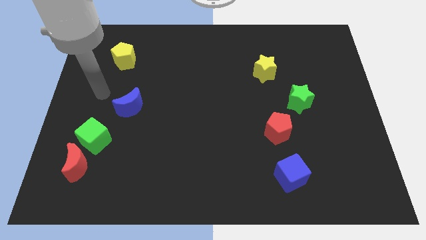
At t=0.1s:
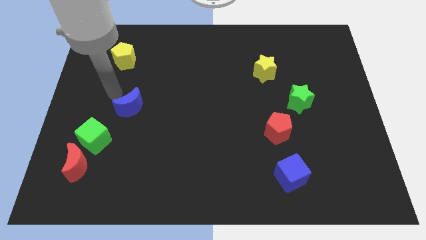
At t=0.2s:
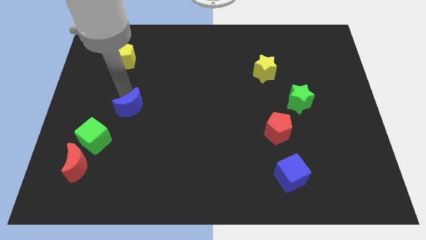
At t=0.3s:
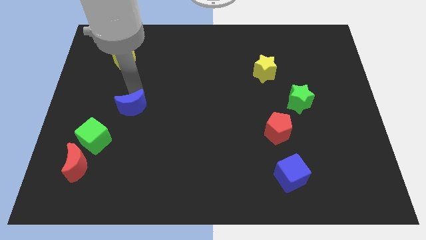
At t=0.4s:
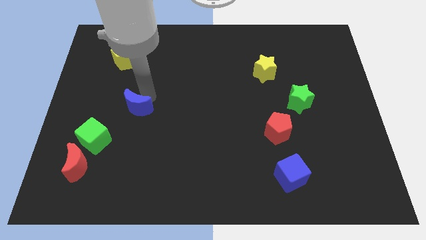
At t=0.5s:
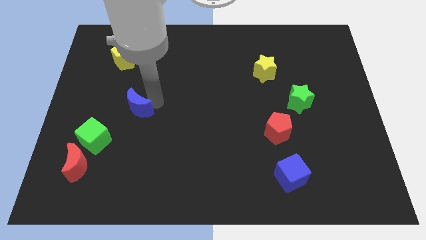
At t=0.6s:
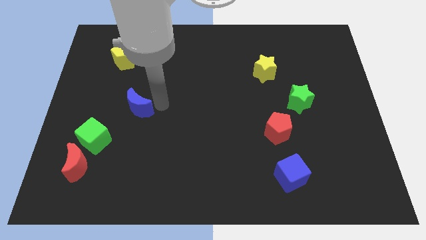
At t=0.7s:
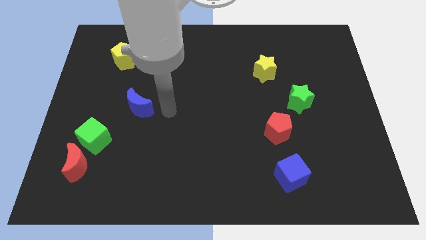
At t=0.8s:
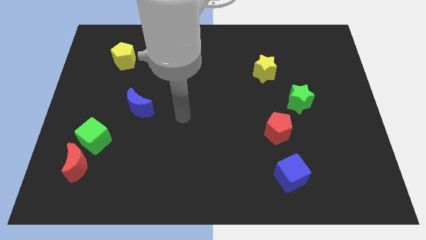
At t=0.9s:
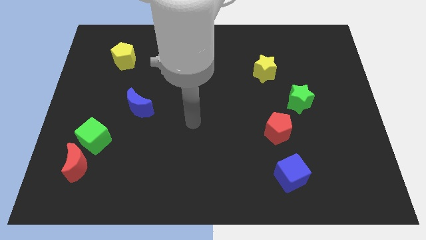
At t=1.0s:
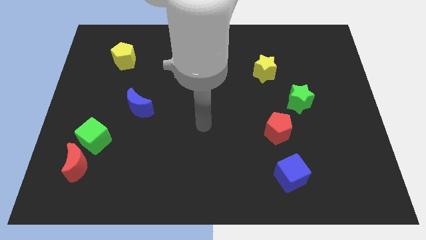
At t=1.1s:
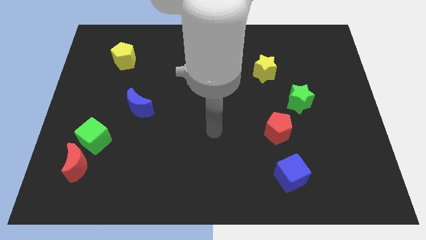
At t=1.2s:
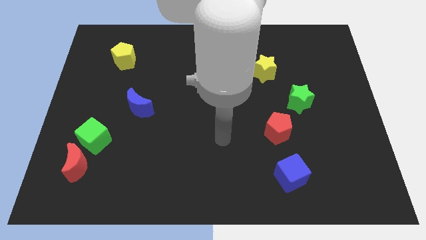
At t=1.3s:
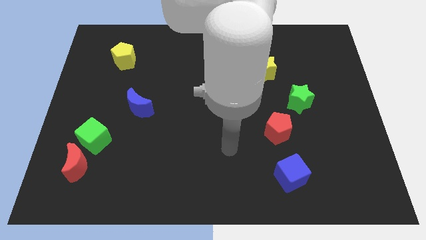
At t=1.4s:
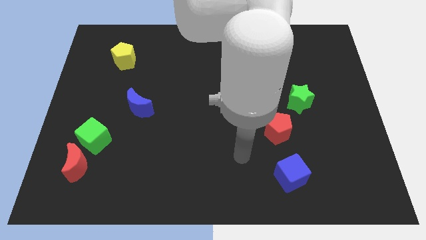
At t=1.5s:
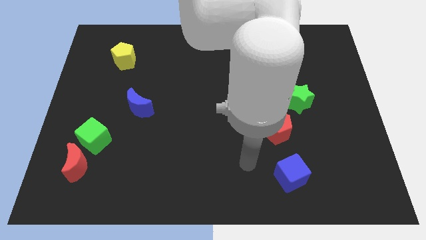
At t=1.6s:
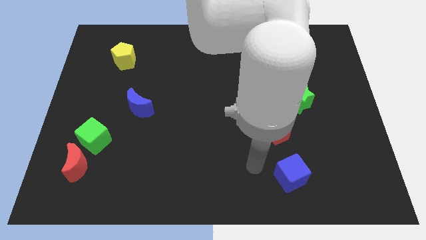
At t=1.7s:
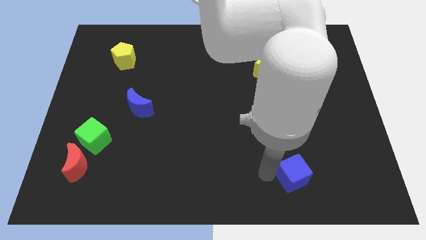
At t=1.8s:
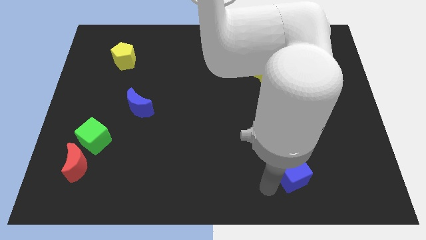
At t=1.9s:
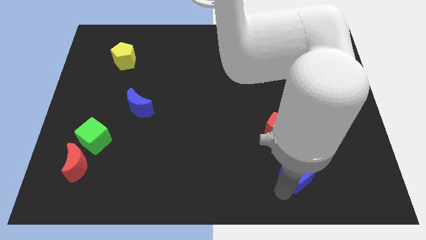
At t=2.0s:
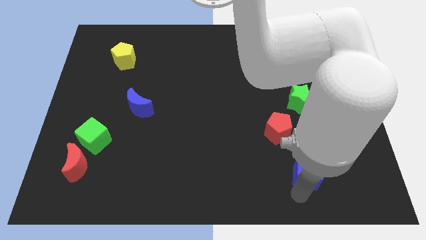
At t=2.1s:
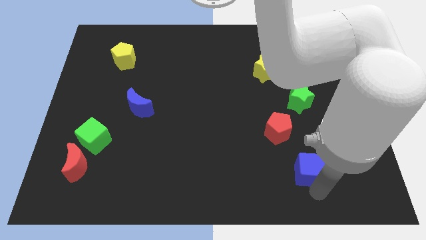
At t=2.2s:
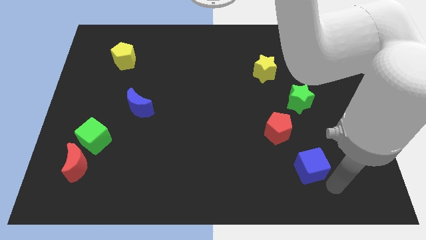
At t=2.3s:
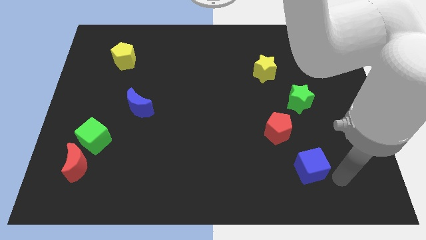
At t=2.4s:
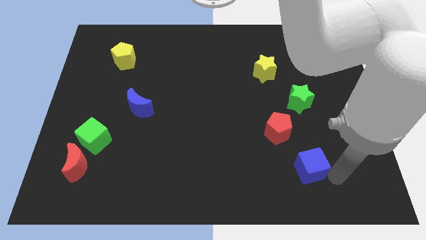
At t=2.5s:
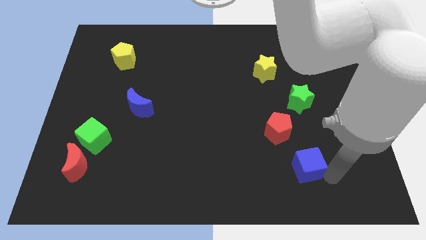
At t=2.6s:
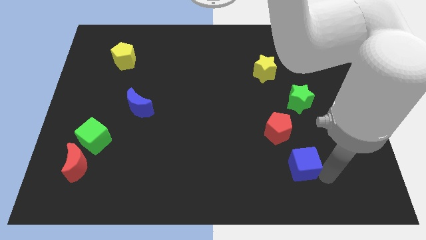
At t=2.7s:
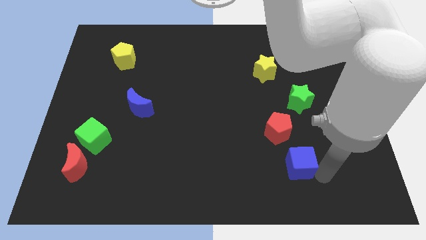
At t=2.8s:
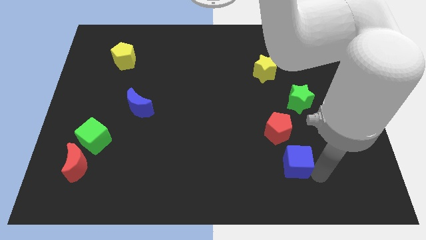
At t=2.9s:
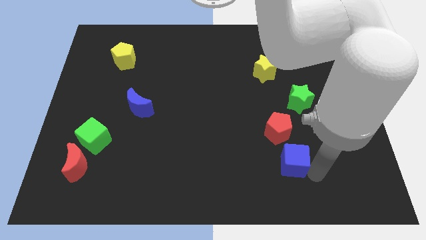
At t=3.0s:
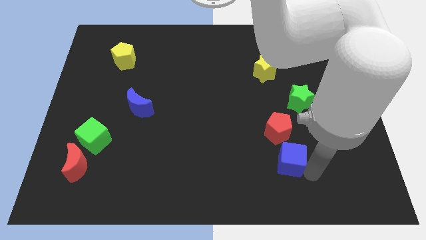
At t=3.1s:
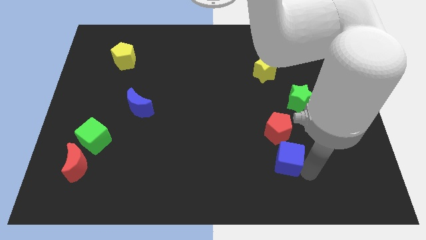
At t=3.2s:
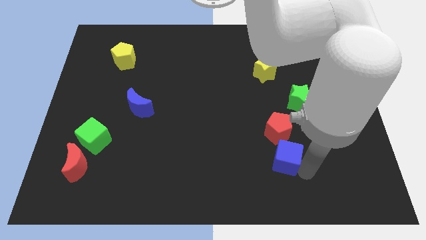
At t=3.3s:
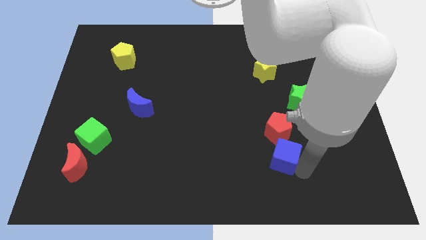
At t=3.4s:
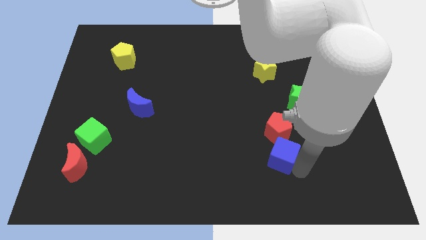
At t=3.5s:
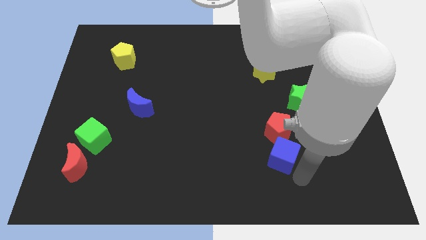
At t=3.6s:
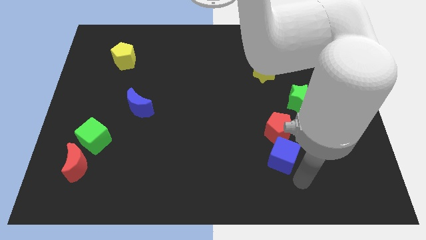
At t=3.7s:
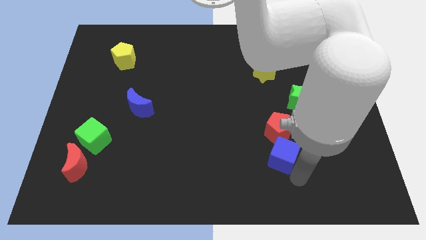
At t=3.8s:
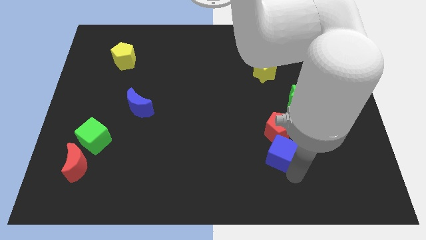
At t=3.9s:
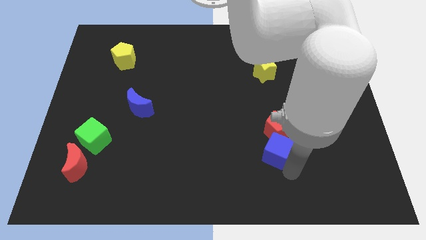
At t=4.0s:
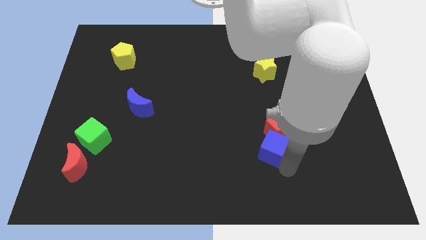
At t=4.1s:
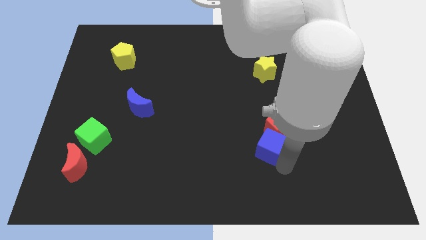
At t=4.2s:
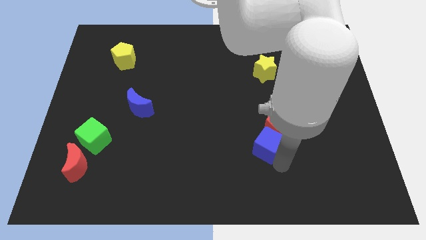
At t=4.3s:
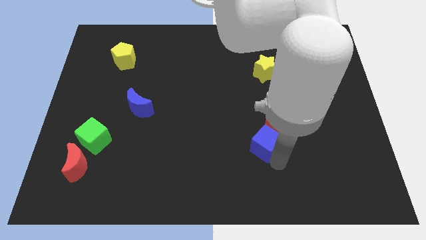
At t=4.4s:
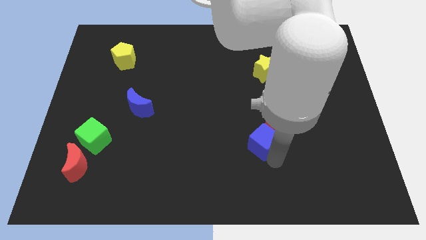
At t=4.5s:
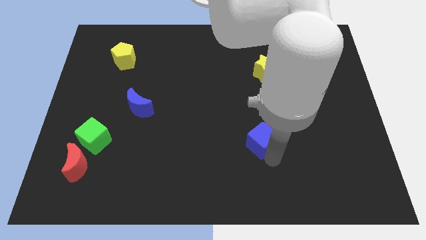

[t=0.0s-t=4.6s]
slightly move the blue cube up

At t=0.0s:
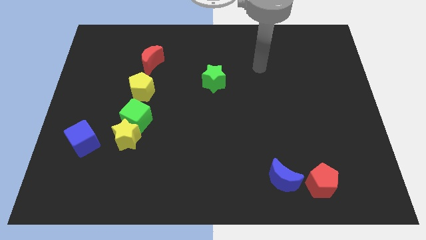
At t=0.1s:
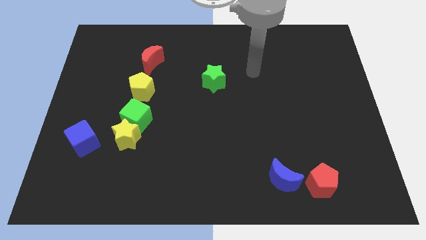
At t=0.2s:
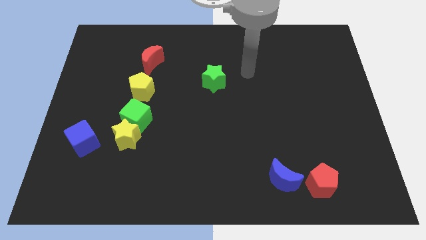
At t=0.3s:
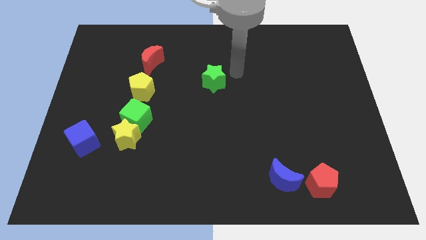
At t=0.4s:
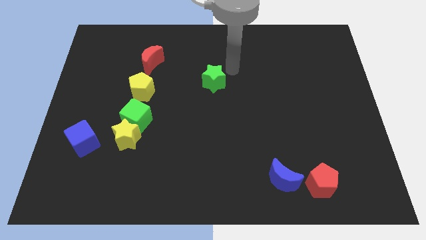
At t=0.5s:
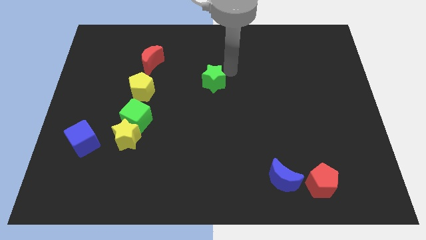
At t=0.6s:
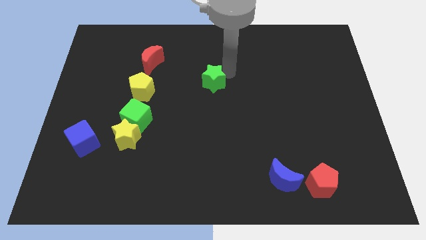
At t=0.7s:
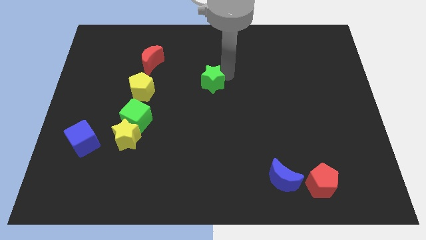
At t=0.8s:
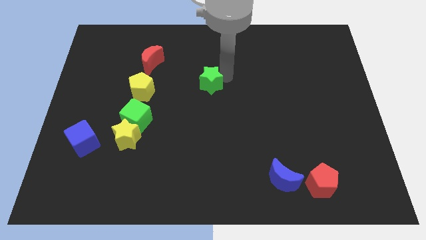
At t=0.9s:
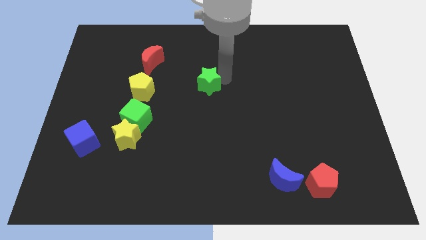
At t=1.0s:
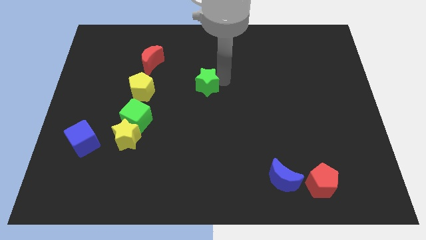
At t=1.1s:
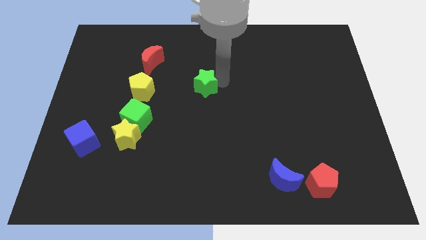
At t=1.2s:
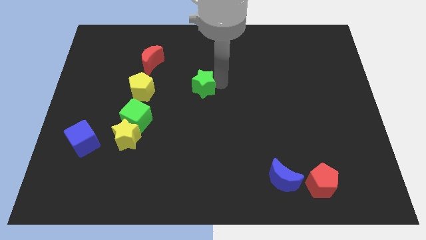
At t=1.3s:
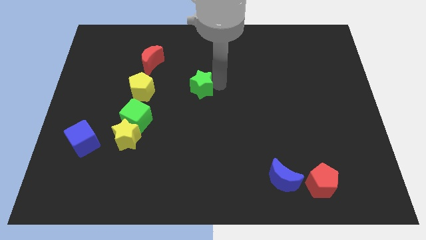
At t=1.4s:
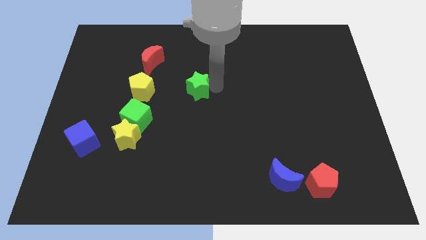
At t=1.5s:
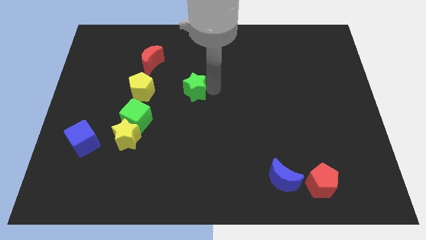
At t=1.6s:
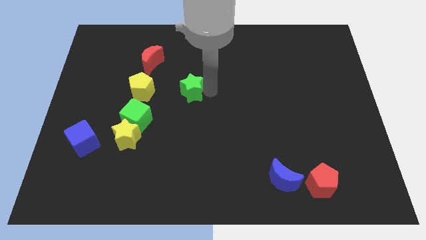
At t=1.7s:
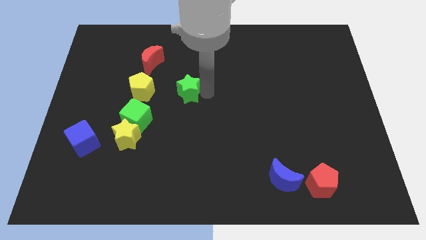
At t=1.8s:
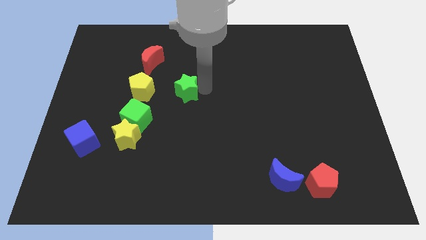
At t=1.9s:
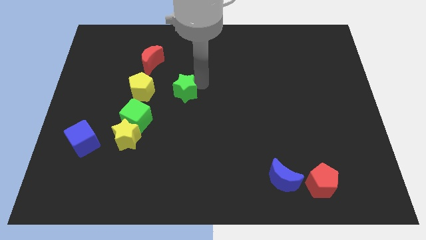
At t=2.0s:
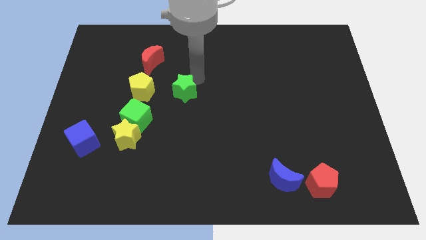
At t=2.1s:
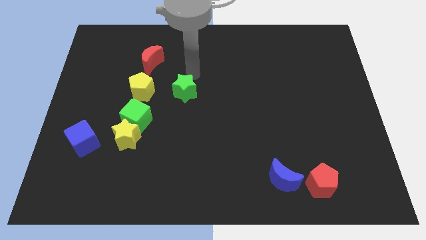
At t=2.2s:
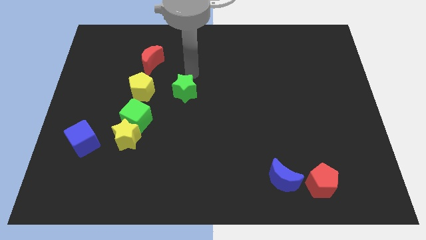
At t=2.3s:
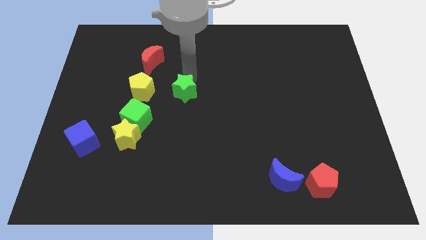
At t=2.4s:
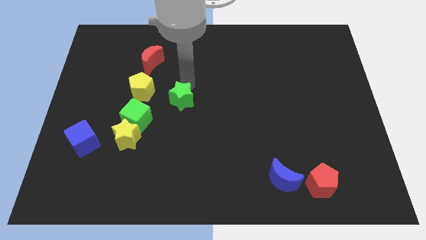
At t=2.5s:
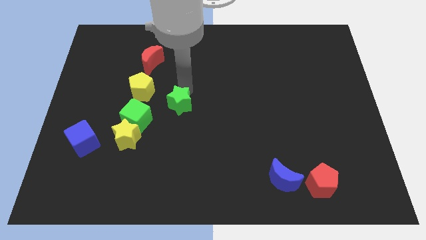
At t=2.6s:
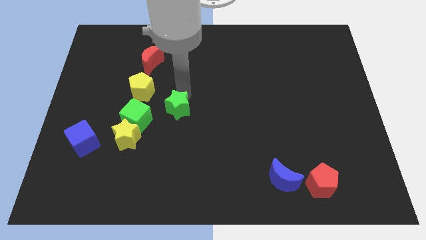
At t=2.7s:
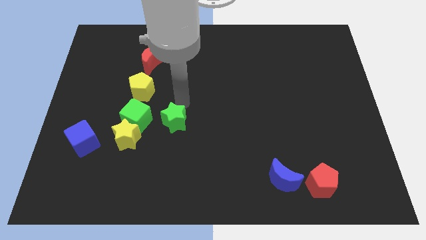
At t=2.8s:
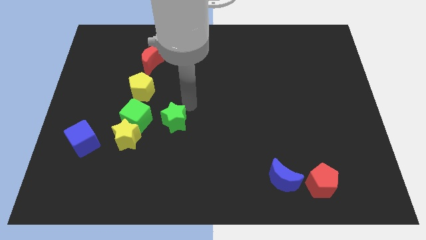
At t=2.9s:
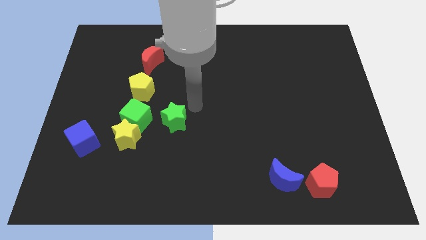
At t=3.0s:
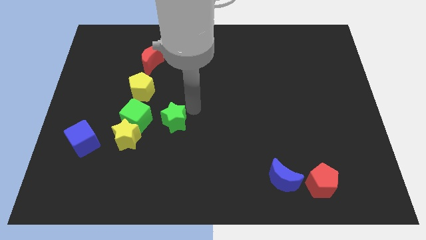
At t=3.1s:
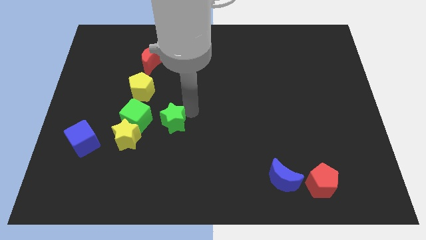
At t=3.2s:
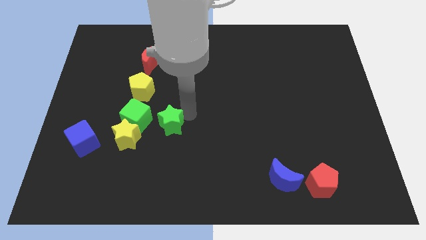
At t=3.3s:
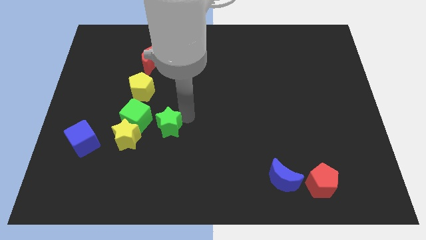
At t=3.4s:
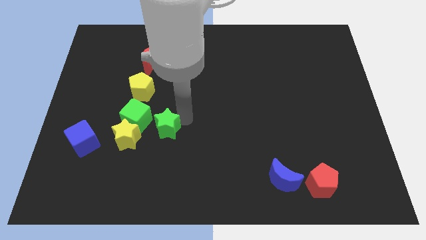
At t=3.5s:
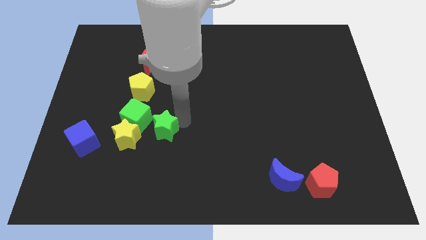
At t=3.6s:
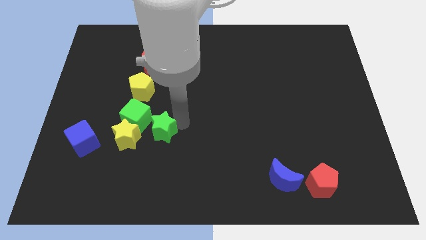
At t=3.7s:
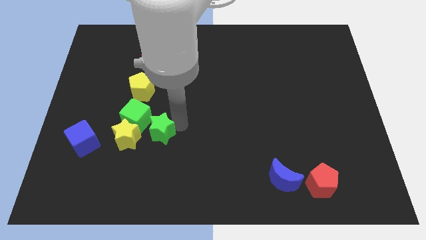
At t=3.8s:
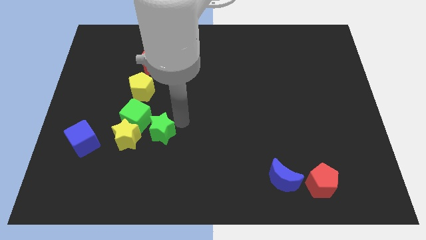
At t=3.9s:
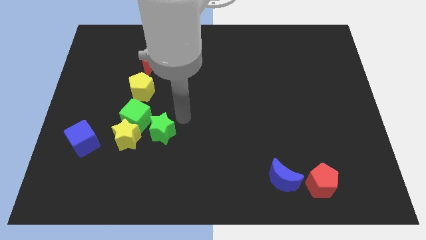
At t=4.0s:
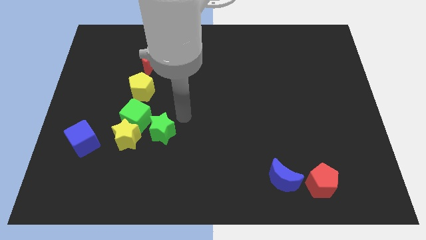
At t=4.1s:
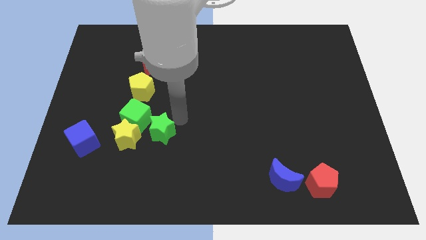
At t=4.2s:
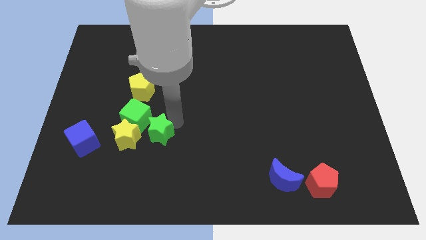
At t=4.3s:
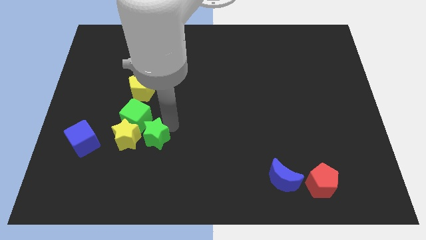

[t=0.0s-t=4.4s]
push the green star down and left
